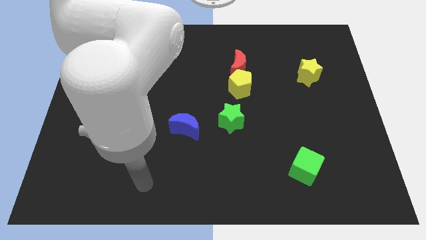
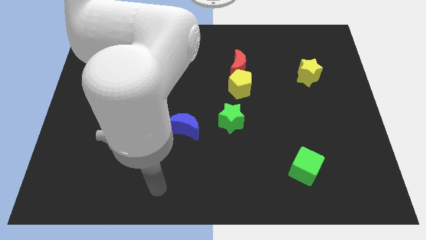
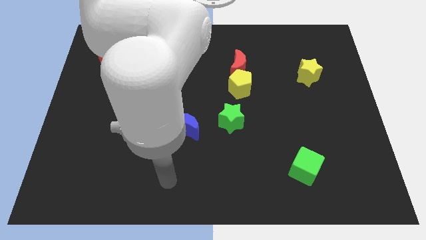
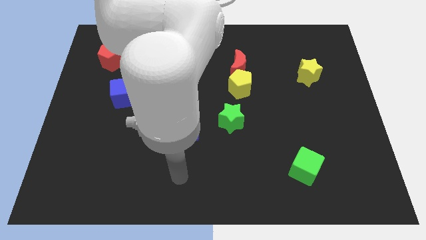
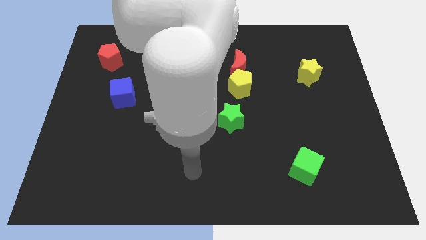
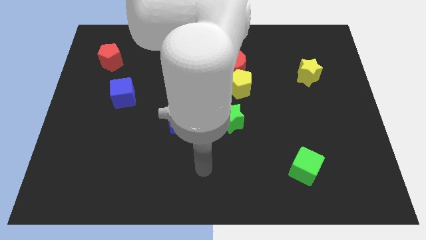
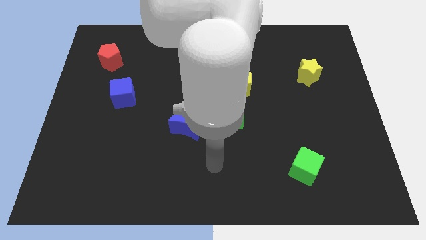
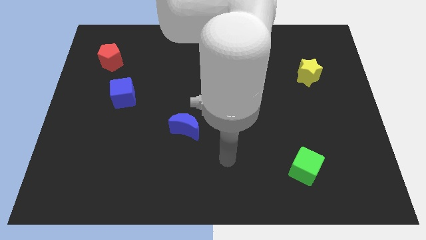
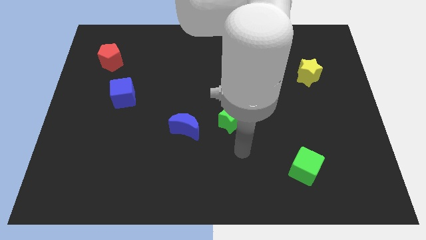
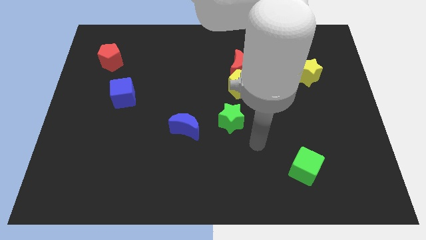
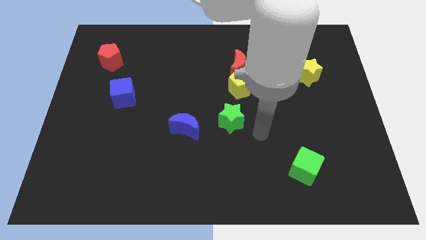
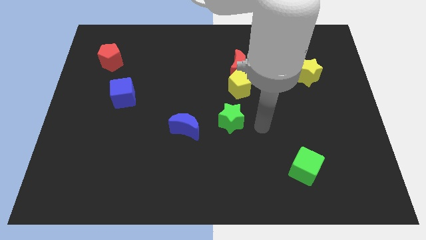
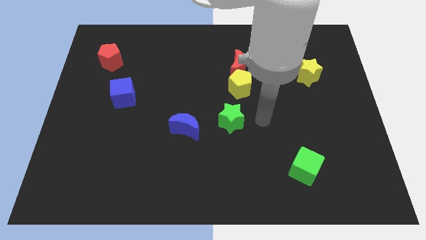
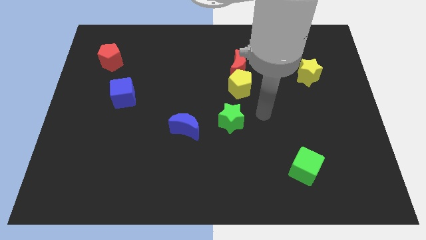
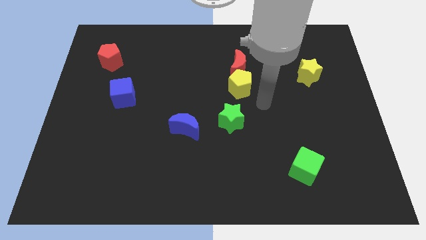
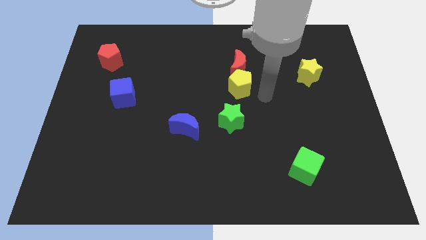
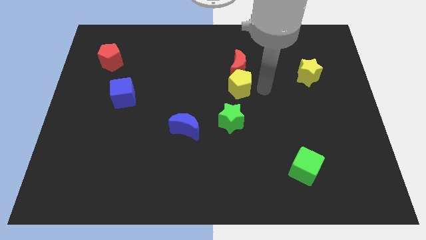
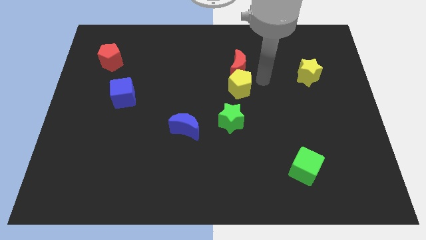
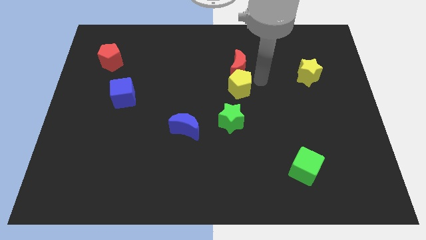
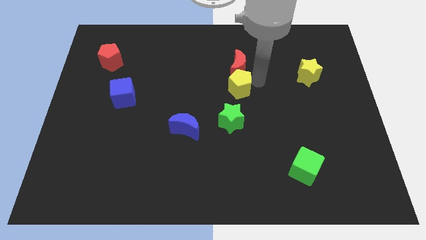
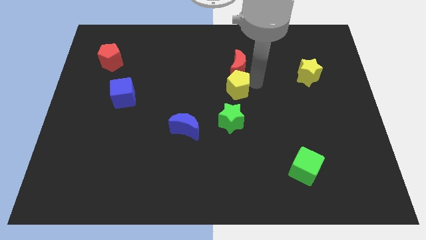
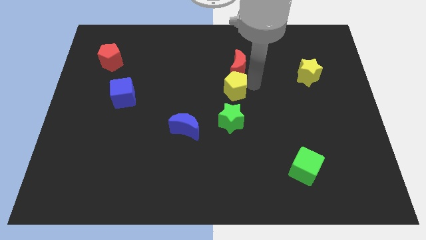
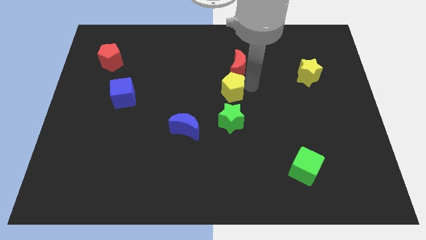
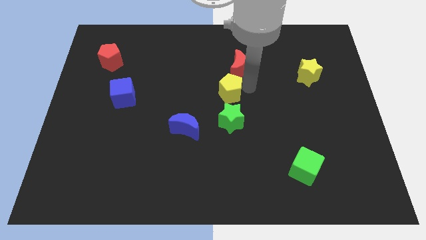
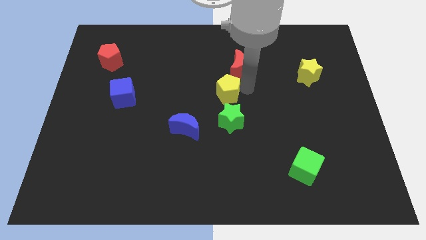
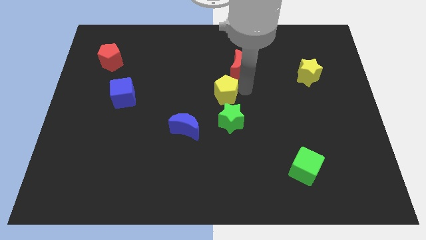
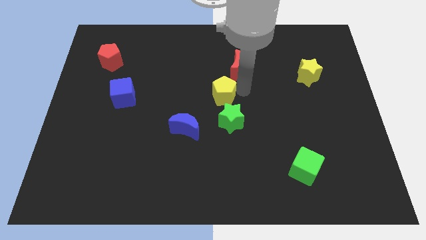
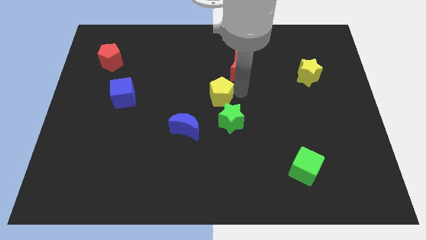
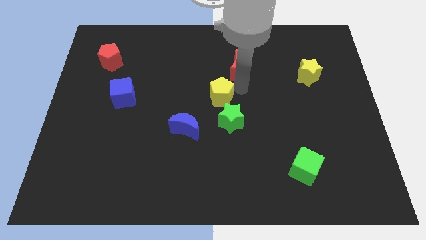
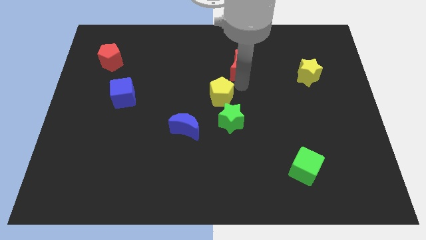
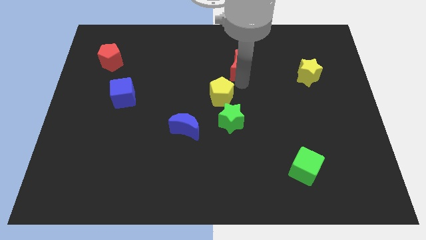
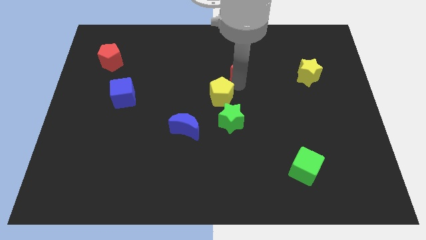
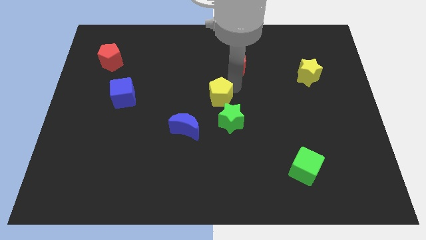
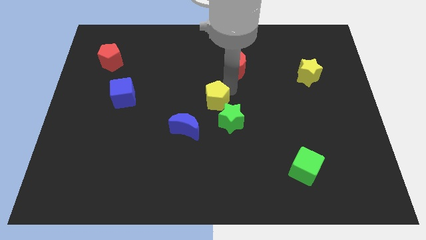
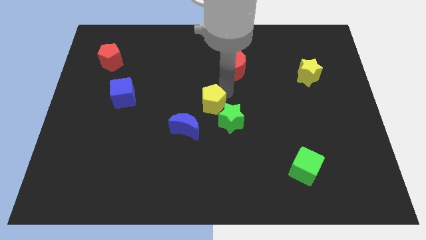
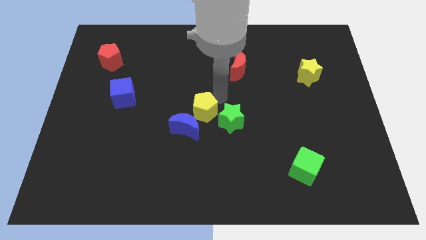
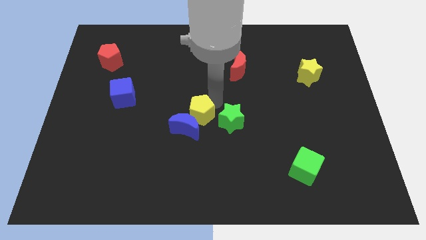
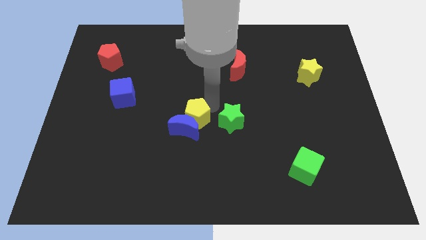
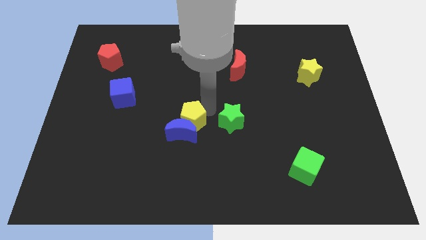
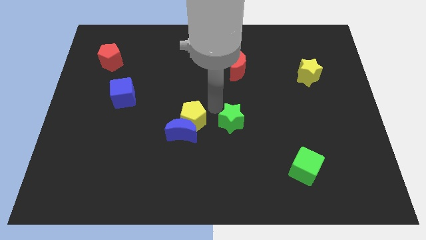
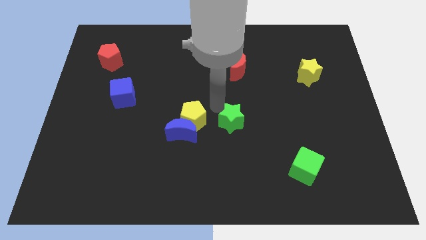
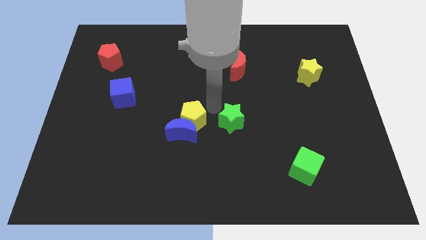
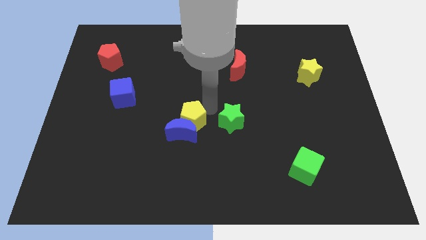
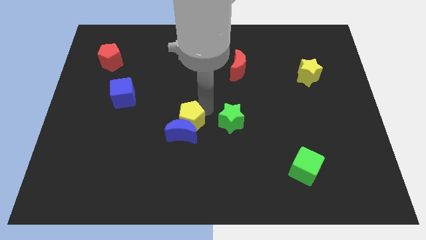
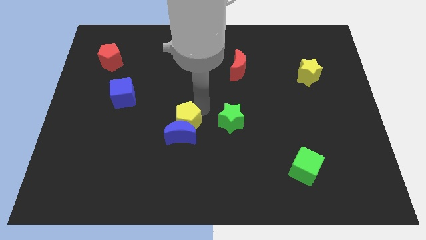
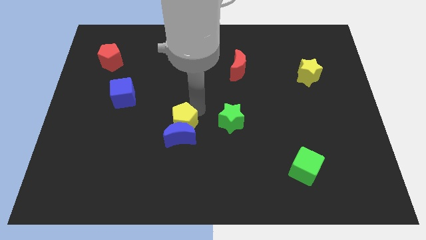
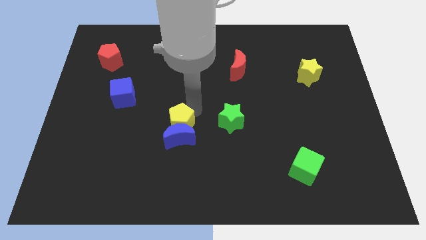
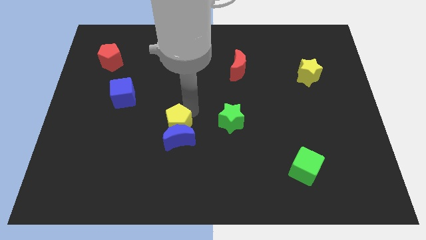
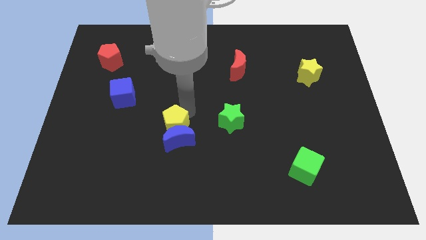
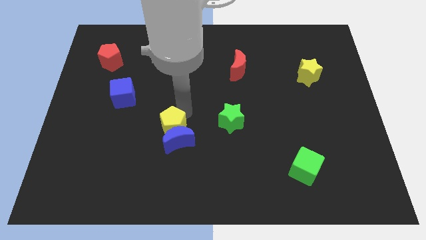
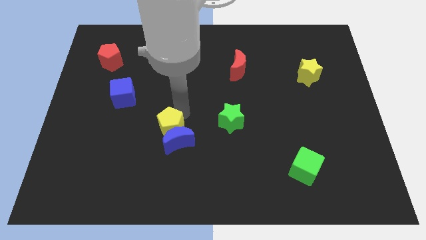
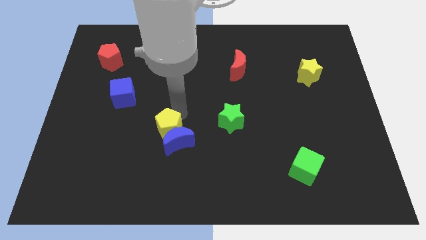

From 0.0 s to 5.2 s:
slide the yellow pentagon down and then to the left

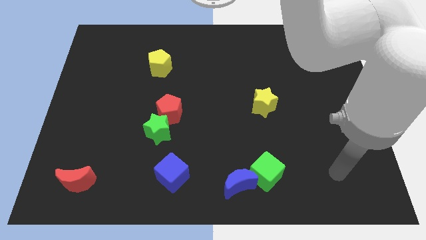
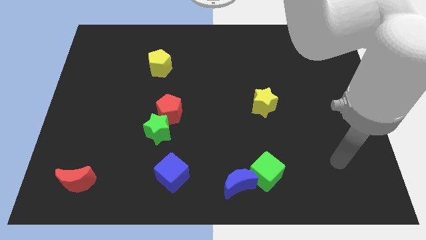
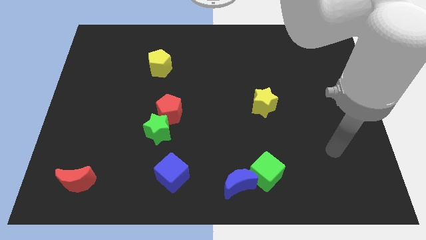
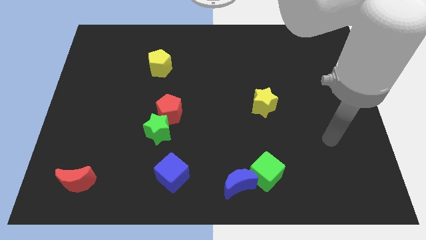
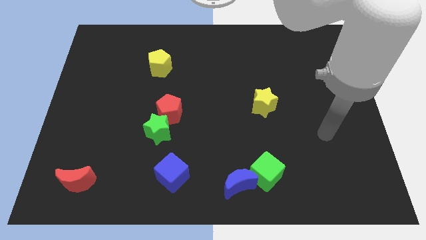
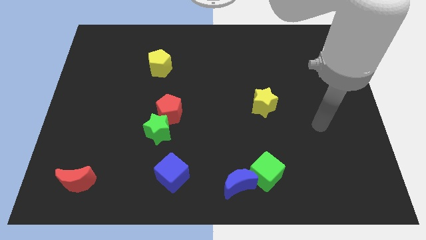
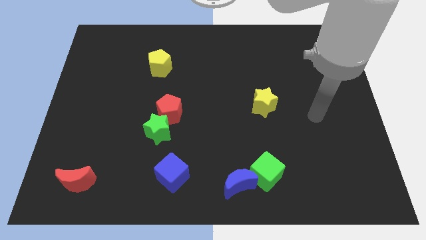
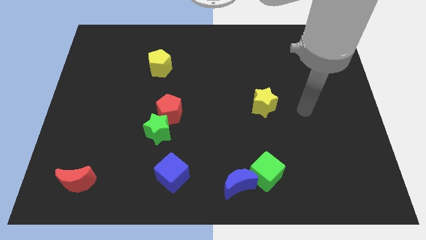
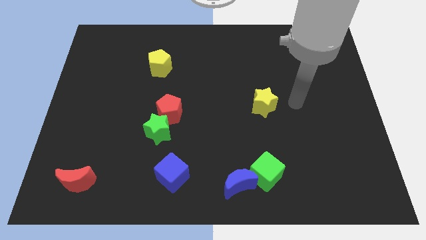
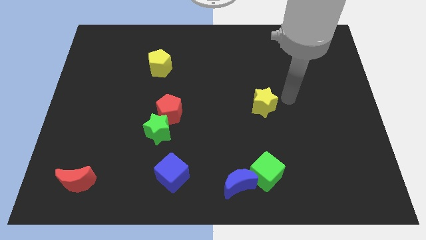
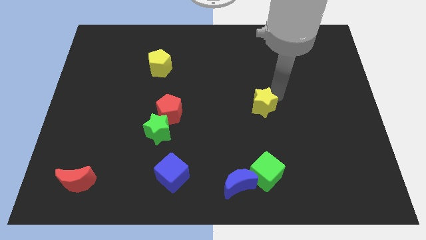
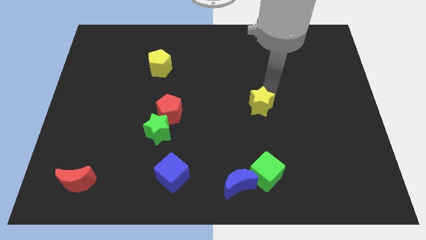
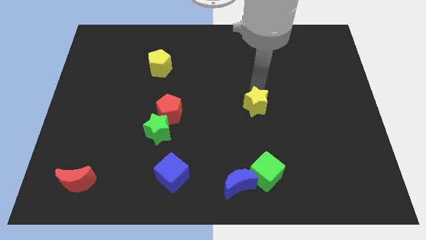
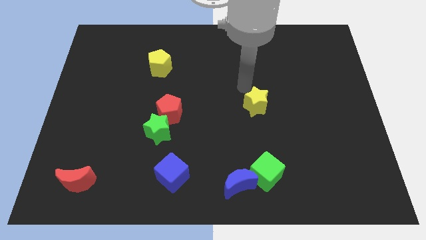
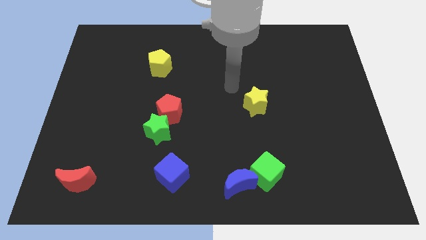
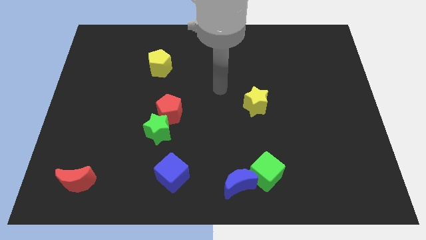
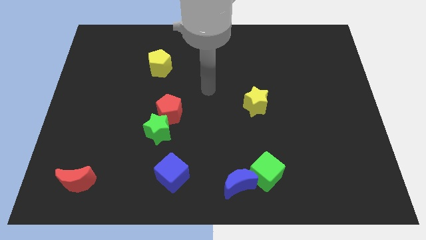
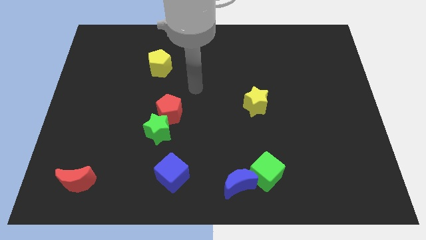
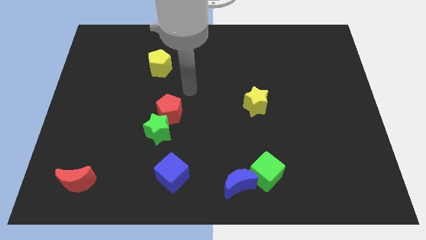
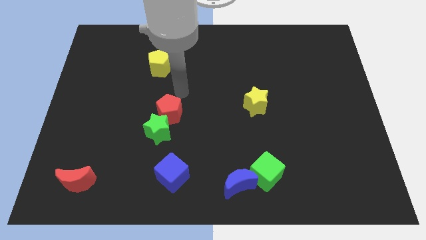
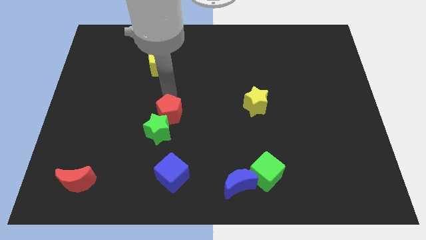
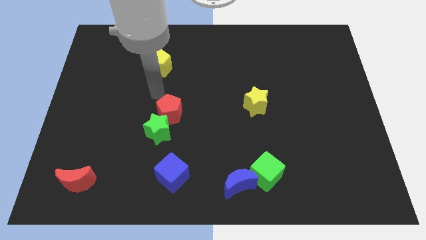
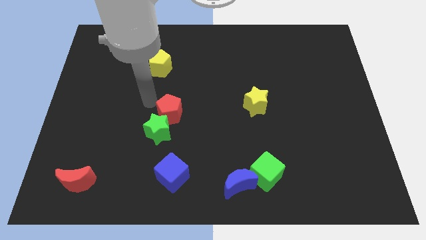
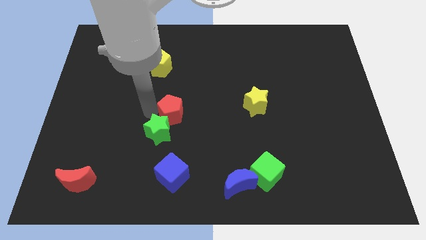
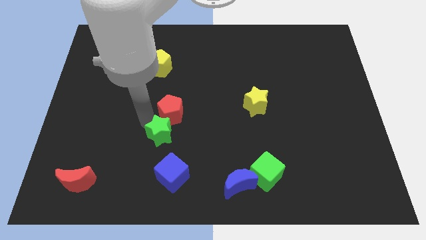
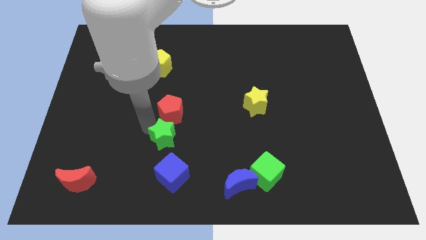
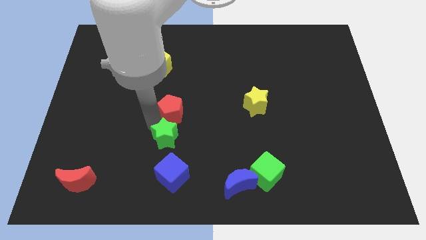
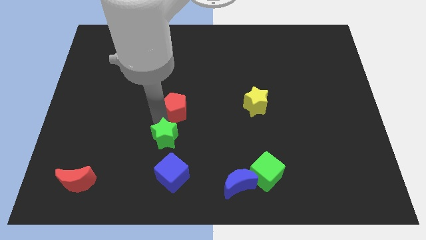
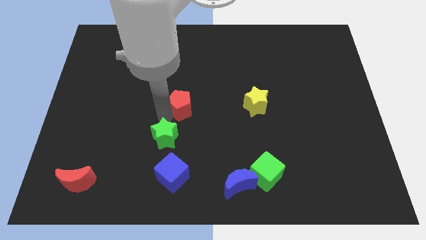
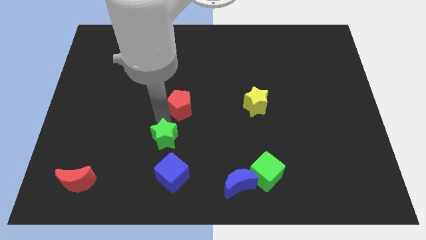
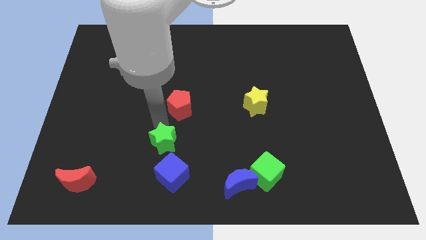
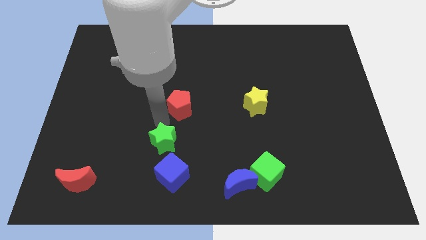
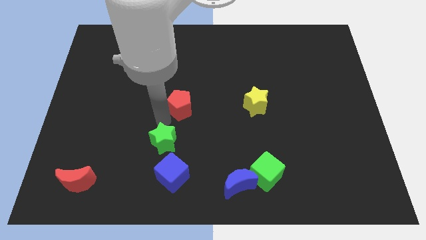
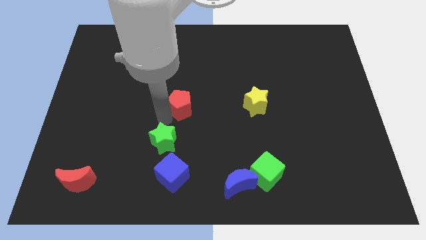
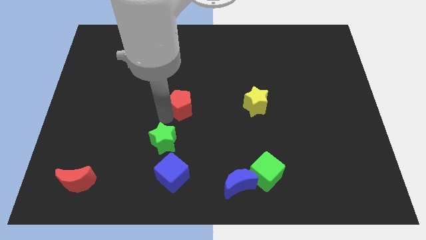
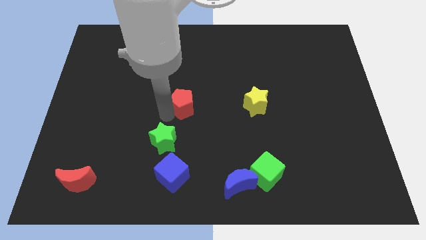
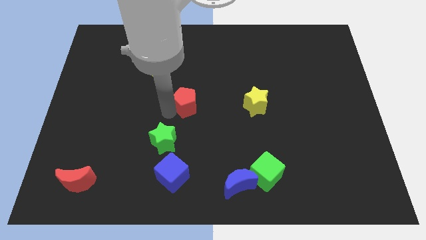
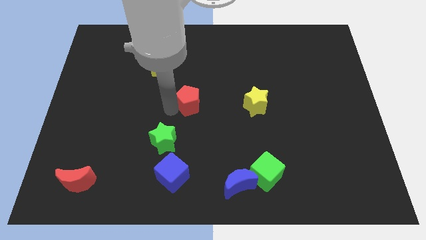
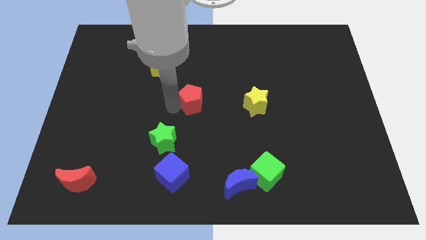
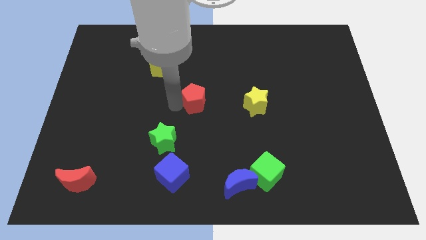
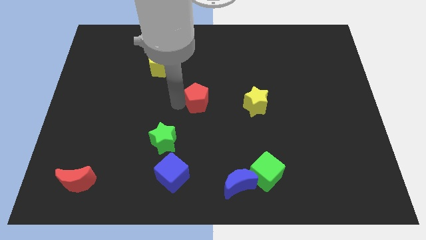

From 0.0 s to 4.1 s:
slide the red pentagon up and then to the right a little bit
